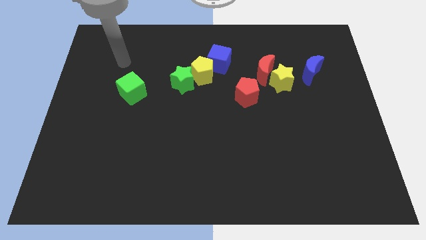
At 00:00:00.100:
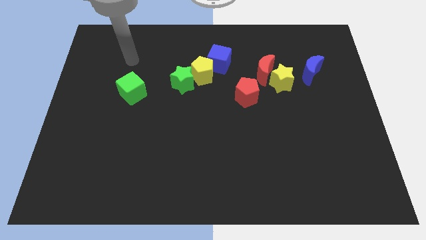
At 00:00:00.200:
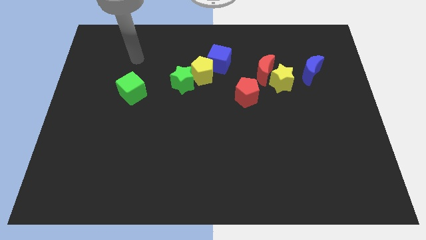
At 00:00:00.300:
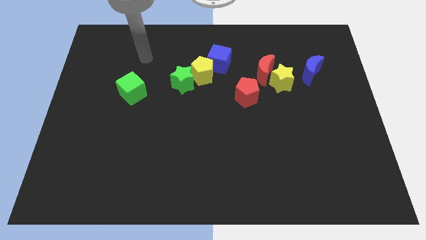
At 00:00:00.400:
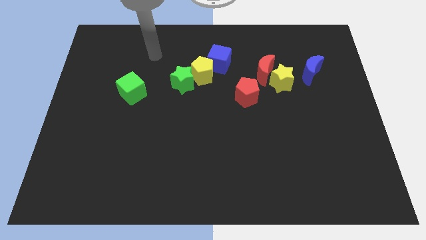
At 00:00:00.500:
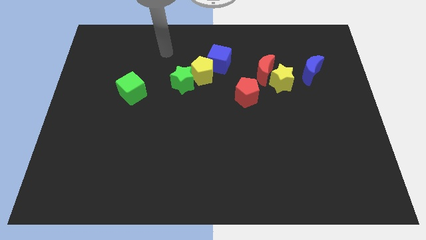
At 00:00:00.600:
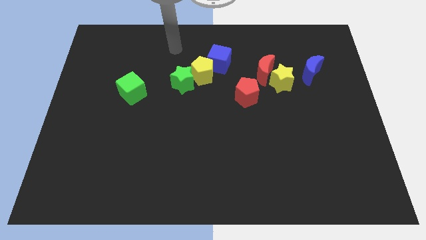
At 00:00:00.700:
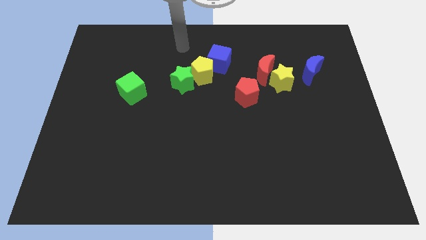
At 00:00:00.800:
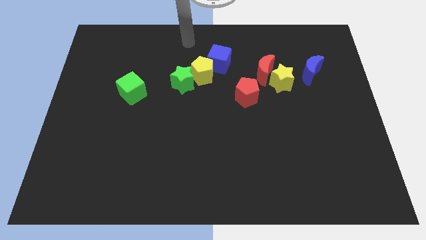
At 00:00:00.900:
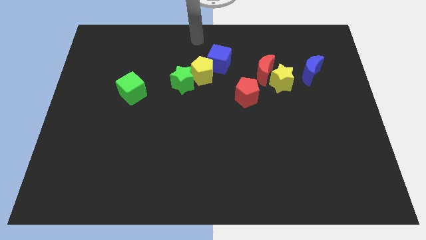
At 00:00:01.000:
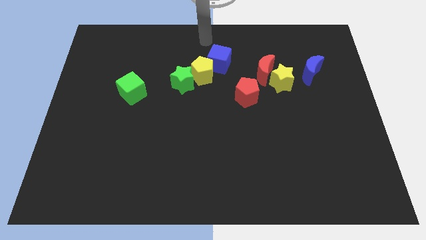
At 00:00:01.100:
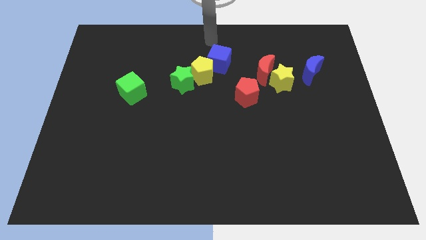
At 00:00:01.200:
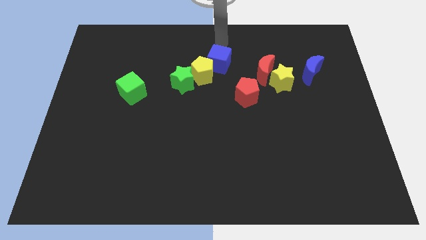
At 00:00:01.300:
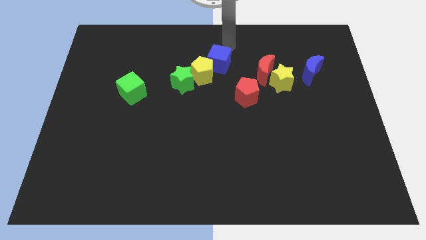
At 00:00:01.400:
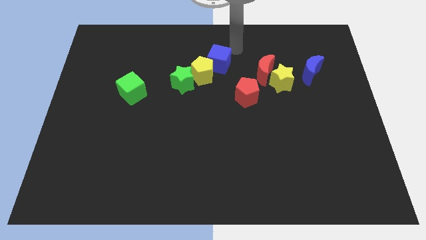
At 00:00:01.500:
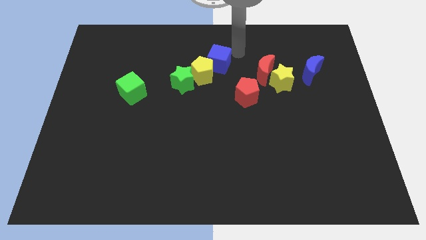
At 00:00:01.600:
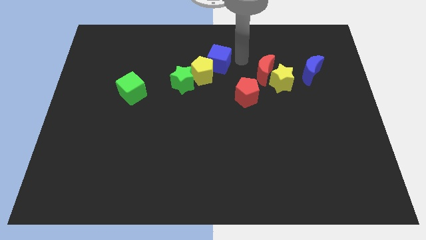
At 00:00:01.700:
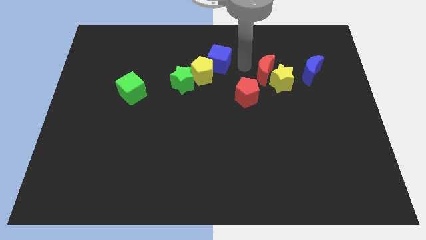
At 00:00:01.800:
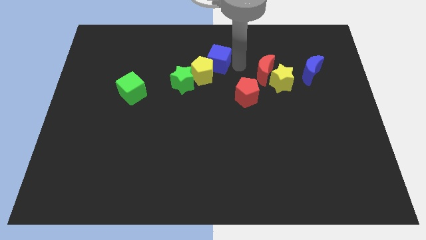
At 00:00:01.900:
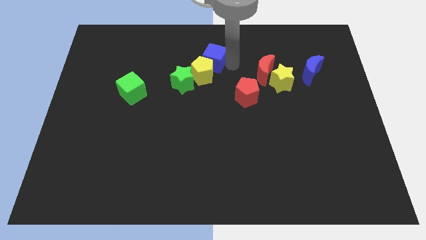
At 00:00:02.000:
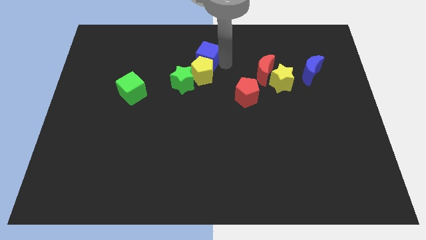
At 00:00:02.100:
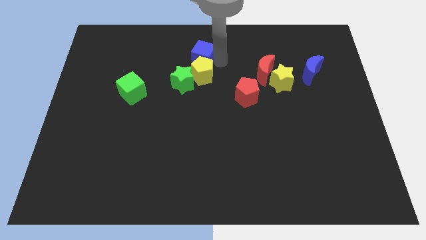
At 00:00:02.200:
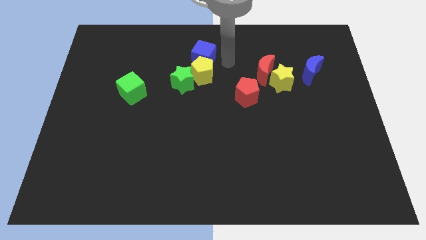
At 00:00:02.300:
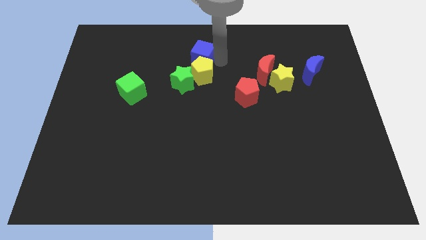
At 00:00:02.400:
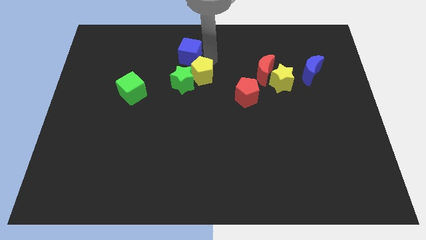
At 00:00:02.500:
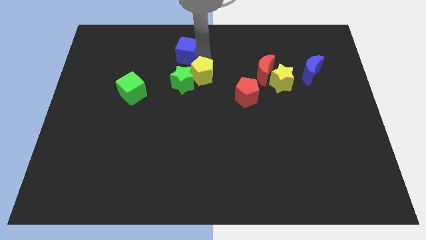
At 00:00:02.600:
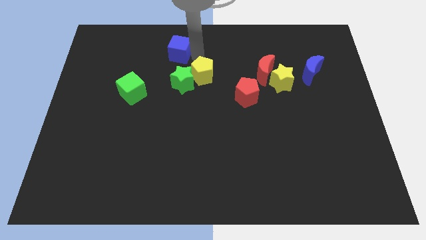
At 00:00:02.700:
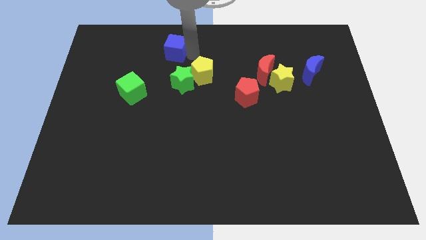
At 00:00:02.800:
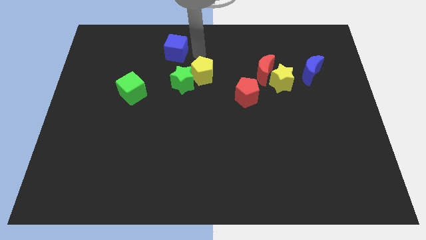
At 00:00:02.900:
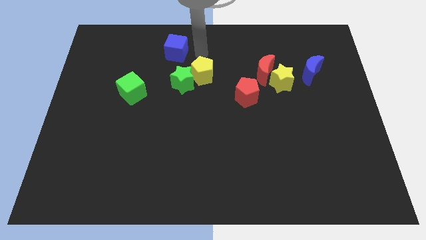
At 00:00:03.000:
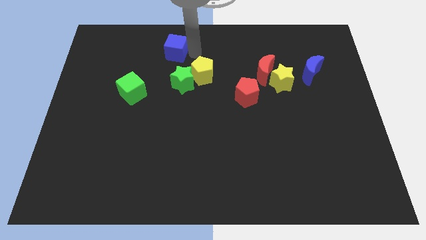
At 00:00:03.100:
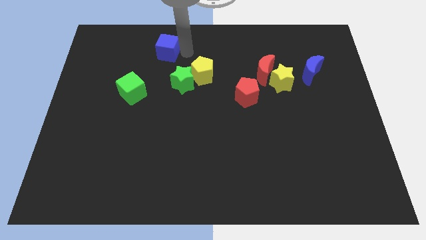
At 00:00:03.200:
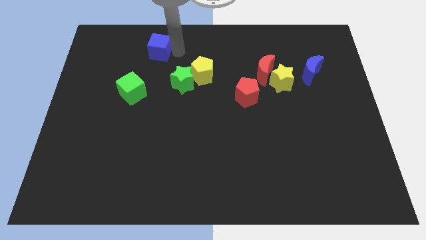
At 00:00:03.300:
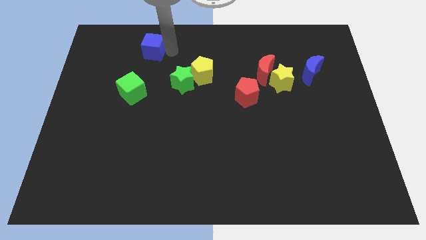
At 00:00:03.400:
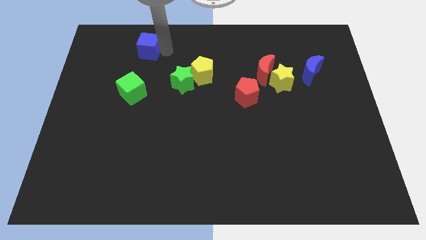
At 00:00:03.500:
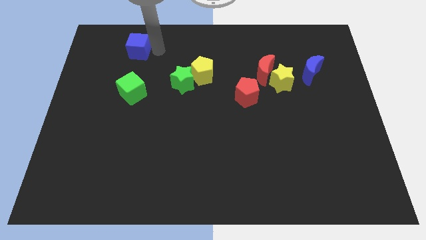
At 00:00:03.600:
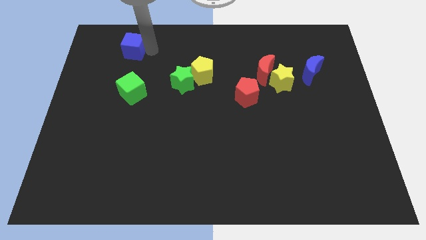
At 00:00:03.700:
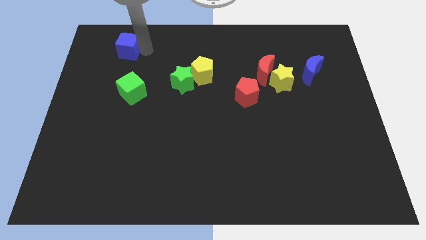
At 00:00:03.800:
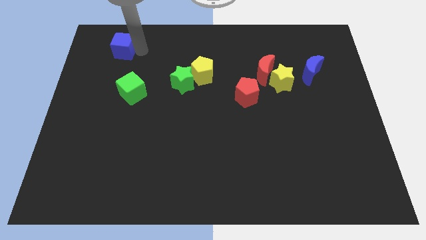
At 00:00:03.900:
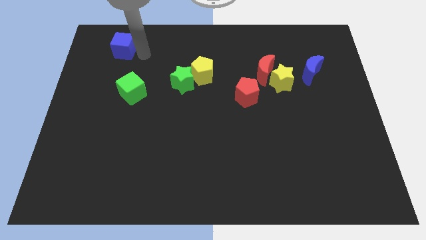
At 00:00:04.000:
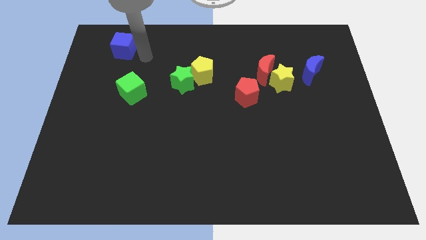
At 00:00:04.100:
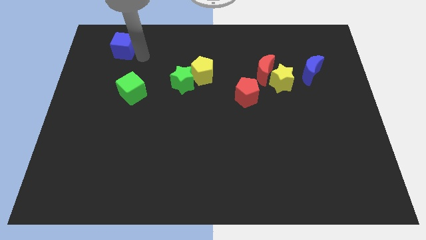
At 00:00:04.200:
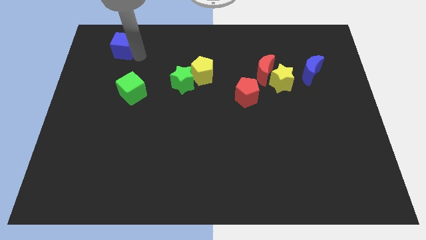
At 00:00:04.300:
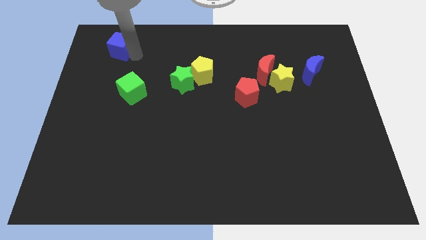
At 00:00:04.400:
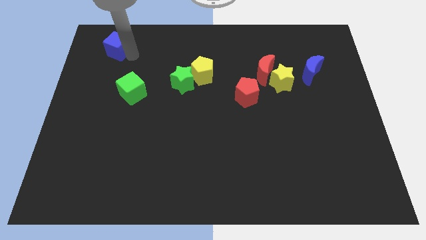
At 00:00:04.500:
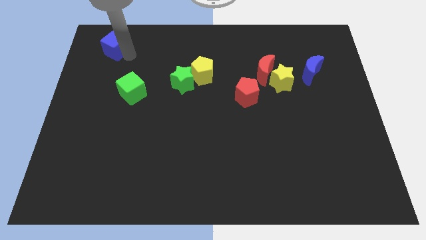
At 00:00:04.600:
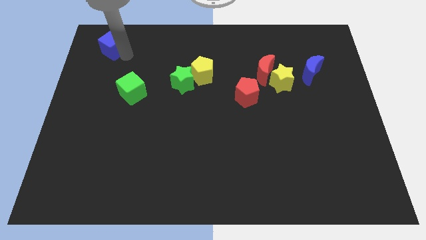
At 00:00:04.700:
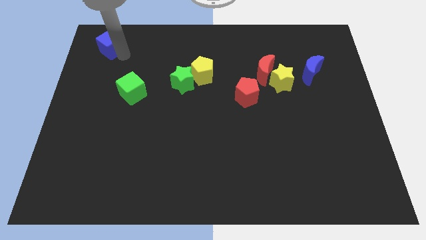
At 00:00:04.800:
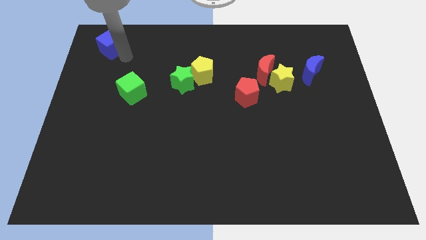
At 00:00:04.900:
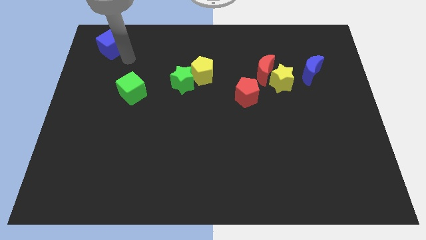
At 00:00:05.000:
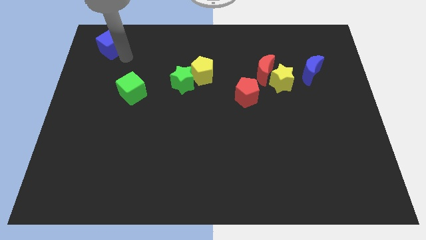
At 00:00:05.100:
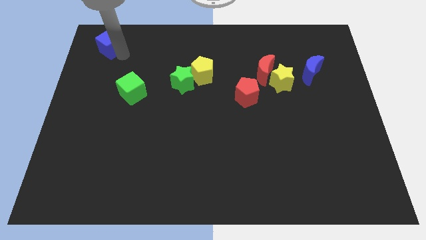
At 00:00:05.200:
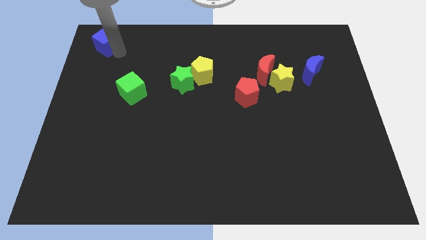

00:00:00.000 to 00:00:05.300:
push the blue cube to the top left corner
